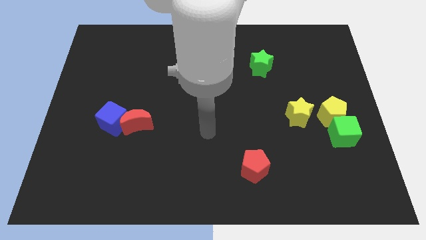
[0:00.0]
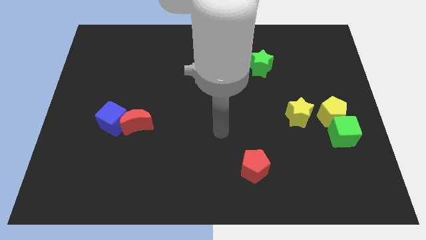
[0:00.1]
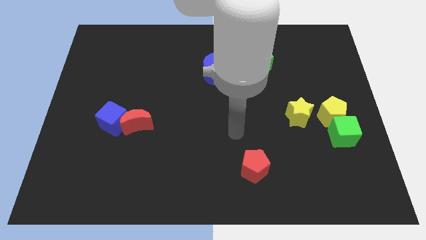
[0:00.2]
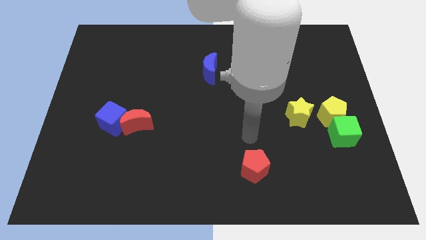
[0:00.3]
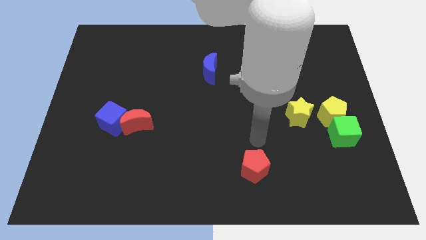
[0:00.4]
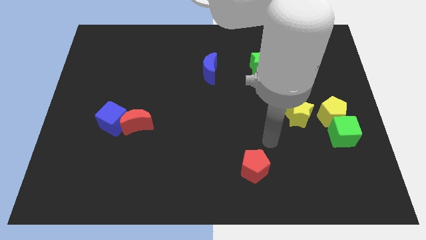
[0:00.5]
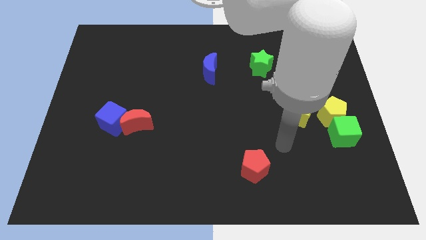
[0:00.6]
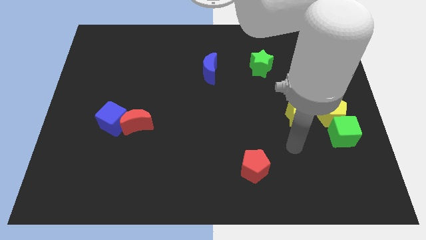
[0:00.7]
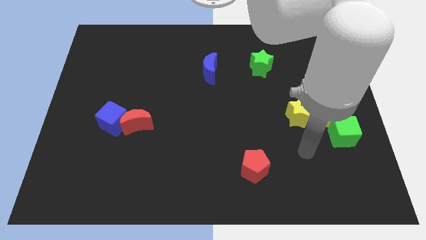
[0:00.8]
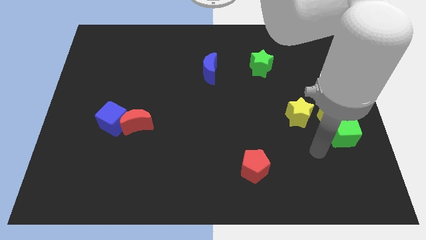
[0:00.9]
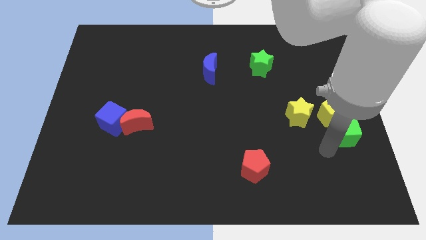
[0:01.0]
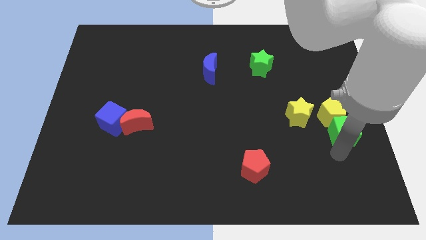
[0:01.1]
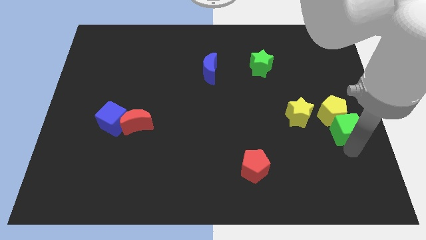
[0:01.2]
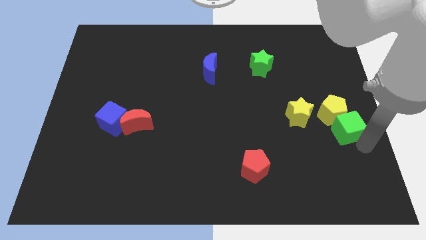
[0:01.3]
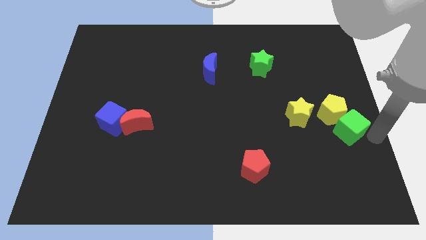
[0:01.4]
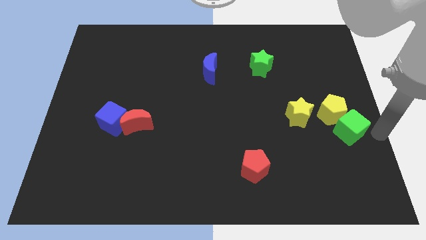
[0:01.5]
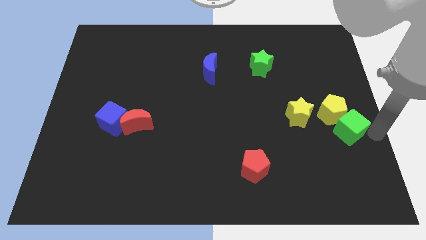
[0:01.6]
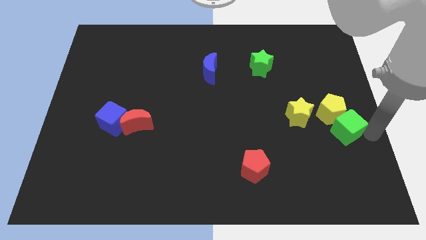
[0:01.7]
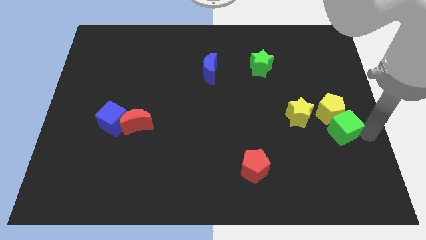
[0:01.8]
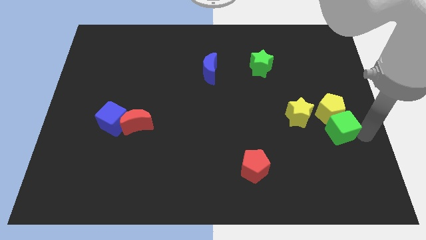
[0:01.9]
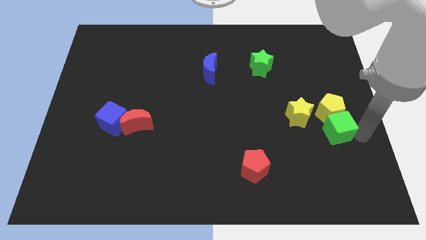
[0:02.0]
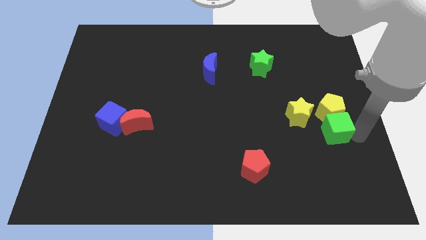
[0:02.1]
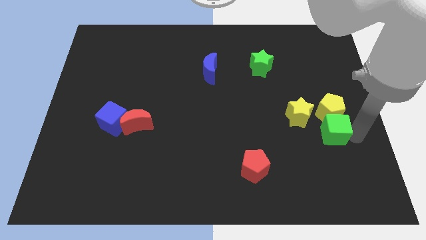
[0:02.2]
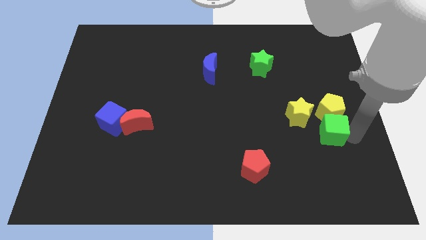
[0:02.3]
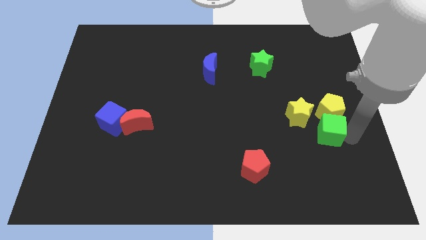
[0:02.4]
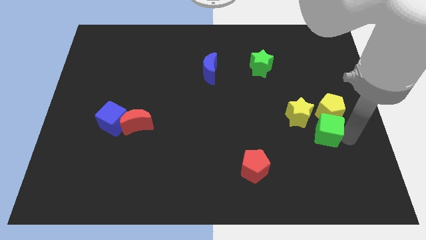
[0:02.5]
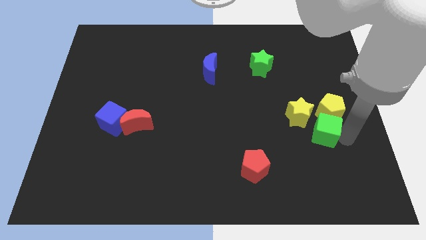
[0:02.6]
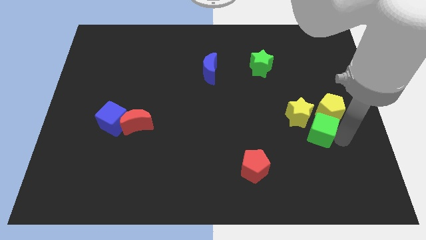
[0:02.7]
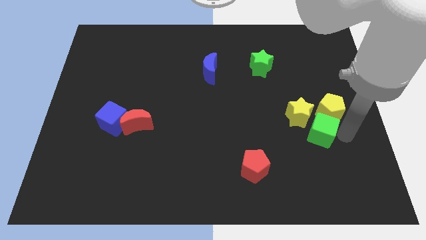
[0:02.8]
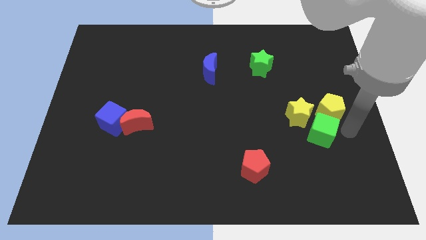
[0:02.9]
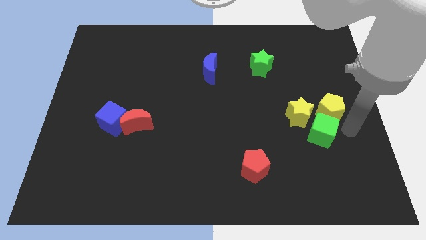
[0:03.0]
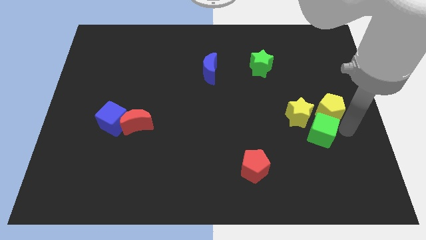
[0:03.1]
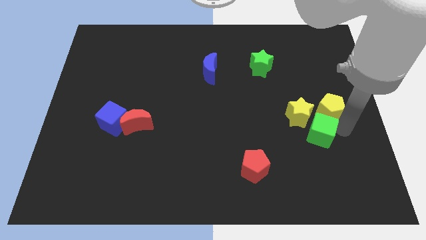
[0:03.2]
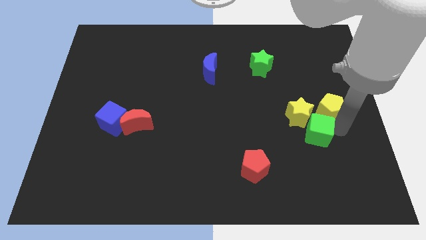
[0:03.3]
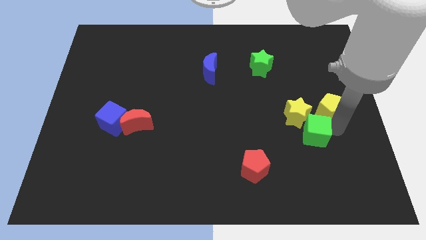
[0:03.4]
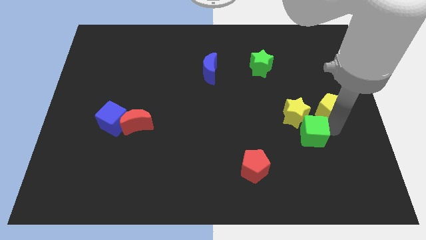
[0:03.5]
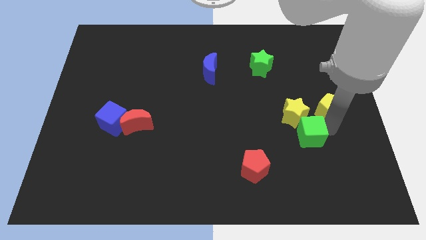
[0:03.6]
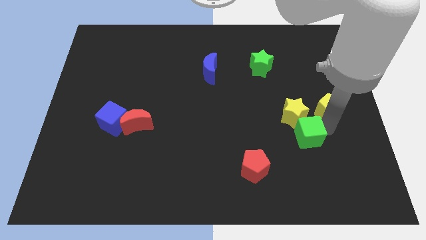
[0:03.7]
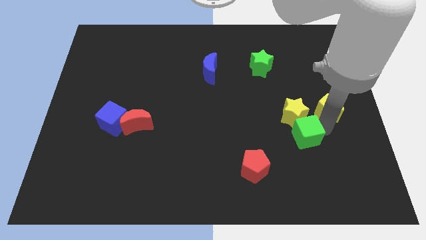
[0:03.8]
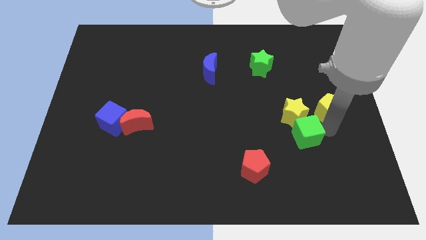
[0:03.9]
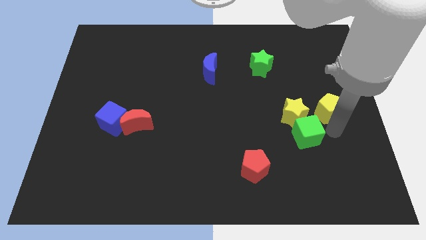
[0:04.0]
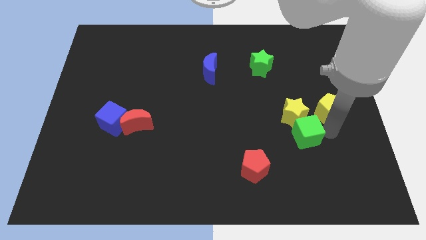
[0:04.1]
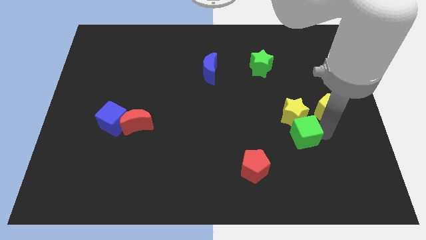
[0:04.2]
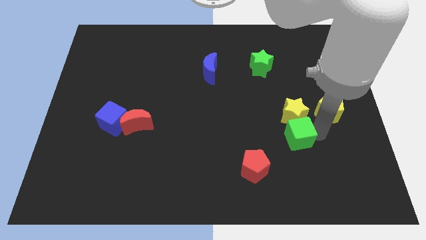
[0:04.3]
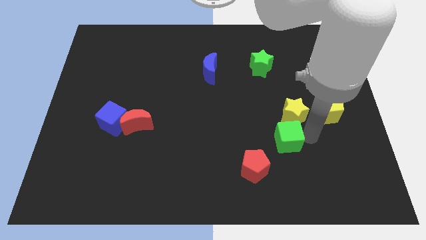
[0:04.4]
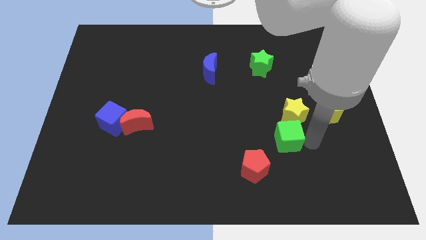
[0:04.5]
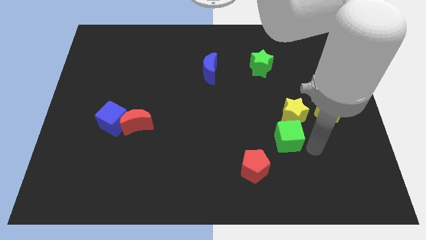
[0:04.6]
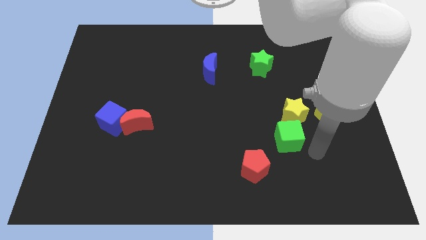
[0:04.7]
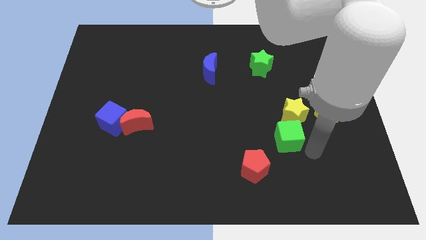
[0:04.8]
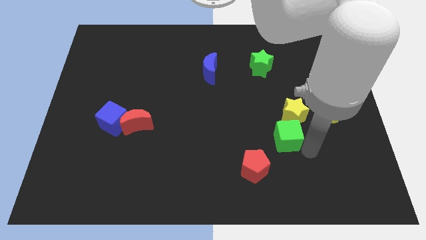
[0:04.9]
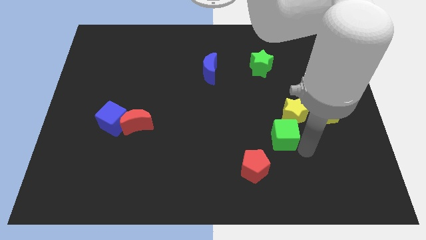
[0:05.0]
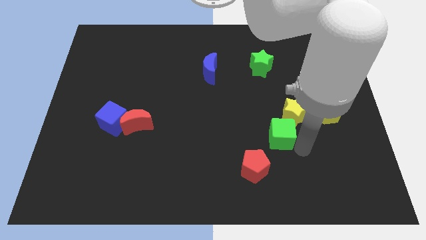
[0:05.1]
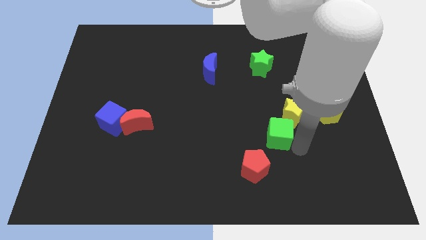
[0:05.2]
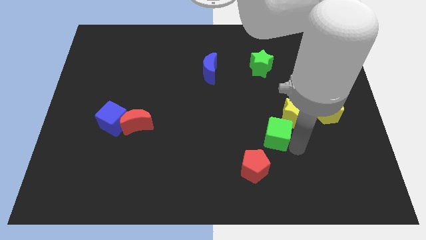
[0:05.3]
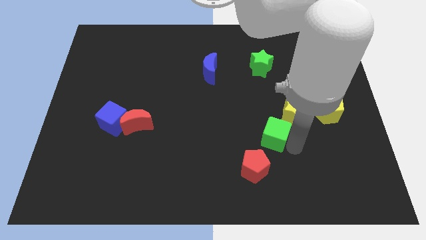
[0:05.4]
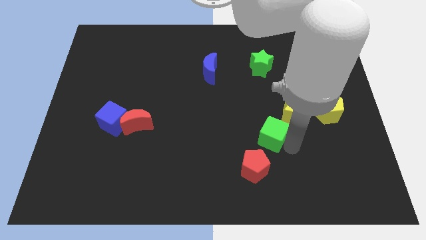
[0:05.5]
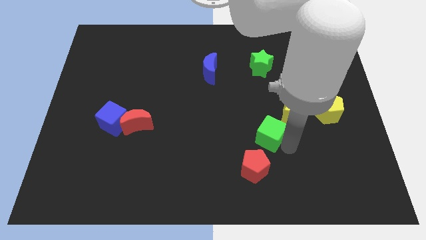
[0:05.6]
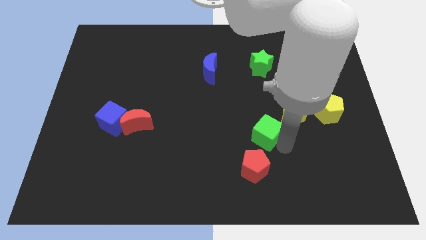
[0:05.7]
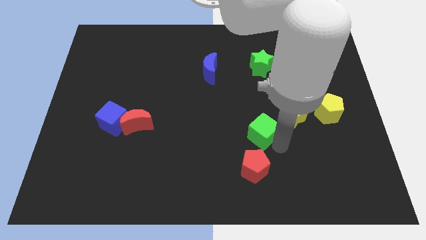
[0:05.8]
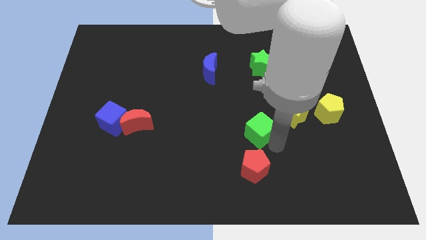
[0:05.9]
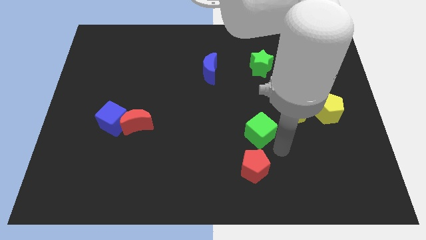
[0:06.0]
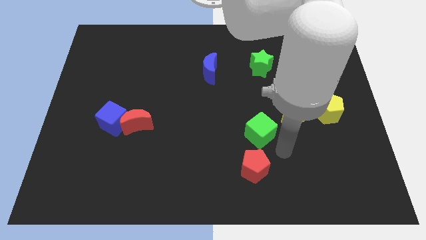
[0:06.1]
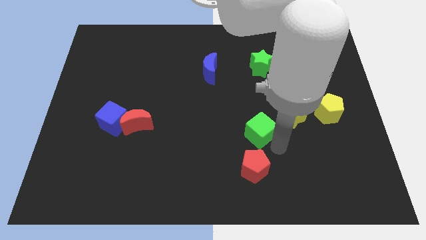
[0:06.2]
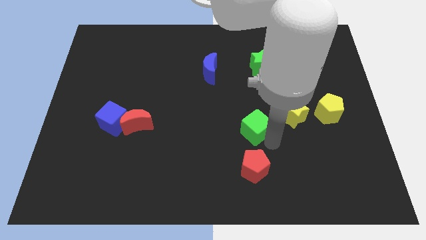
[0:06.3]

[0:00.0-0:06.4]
slide the green cube to the middle of the board

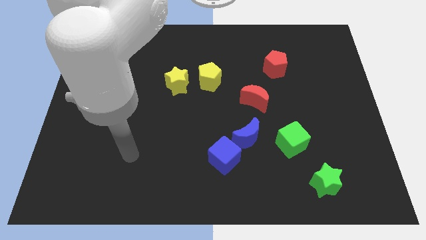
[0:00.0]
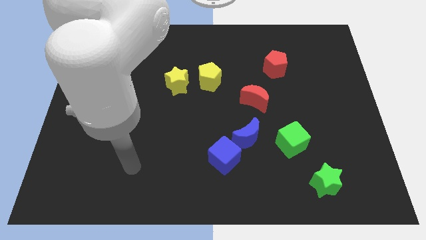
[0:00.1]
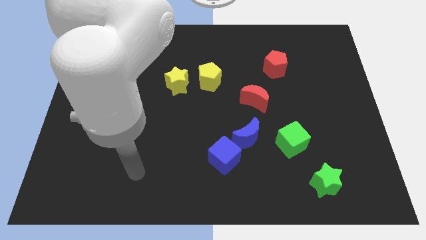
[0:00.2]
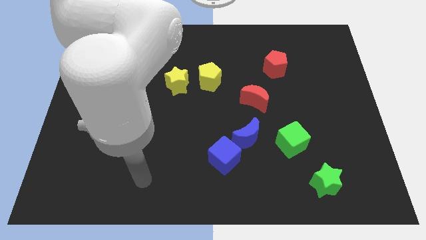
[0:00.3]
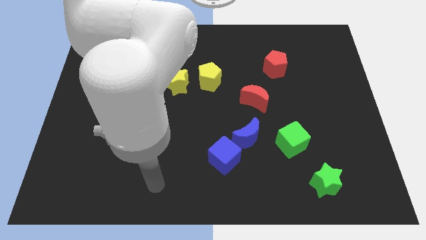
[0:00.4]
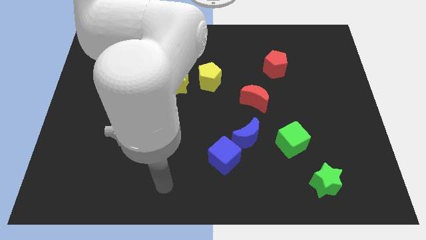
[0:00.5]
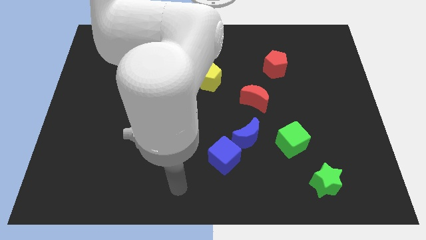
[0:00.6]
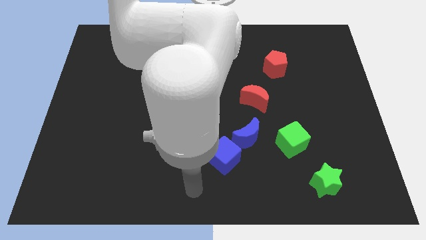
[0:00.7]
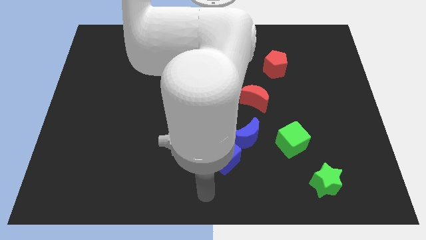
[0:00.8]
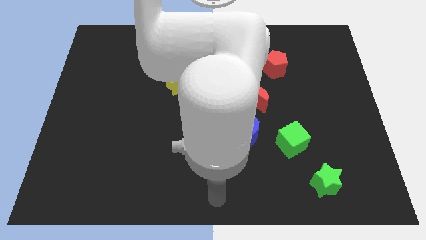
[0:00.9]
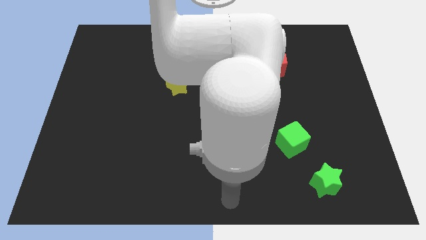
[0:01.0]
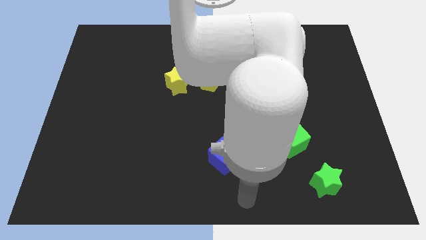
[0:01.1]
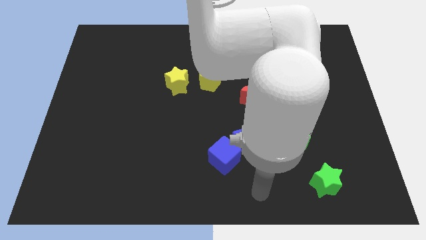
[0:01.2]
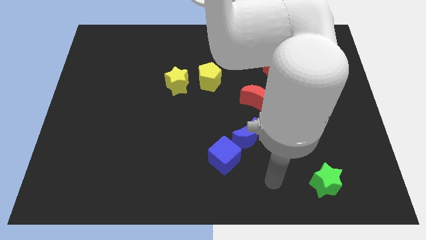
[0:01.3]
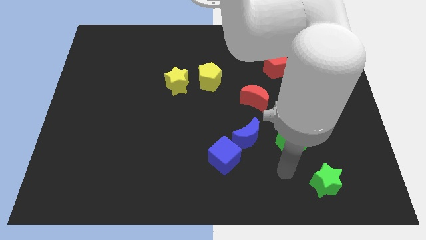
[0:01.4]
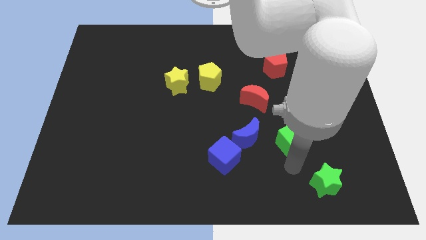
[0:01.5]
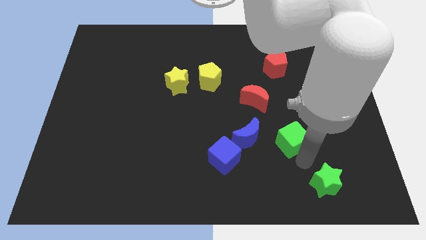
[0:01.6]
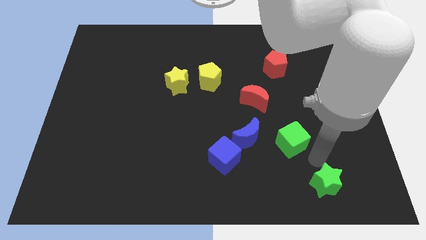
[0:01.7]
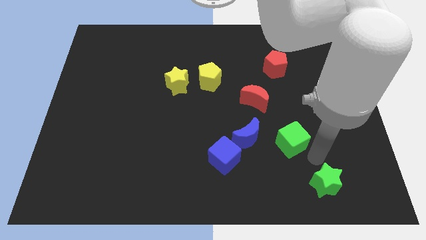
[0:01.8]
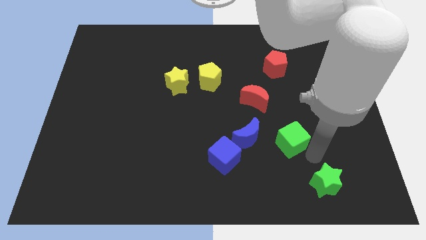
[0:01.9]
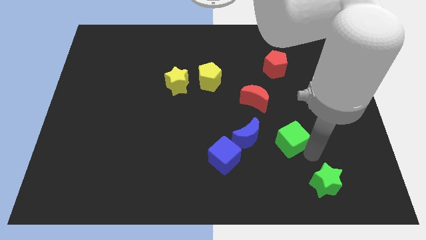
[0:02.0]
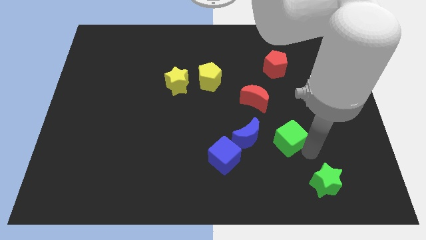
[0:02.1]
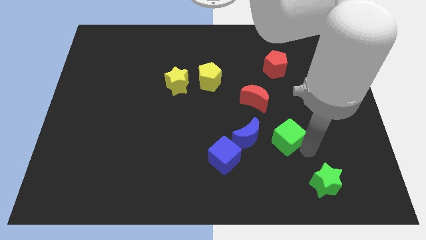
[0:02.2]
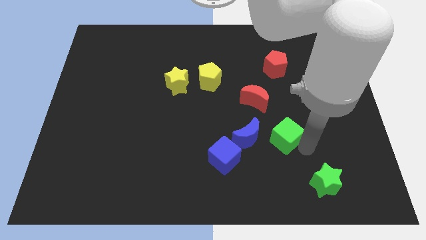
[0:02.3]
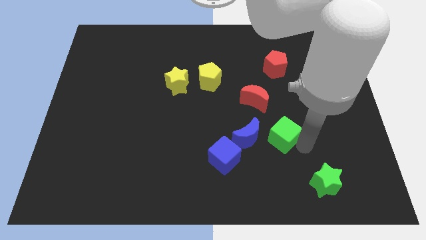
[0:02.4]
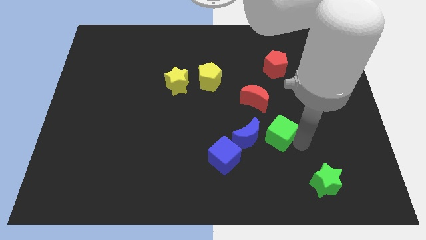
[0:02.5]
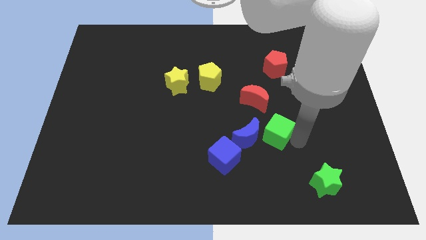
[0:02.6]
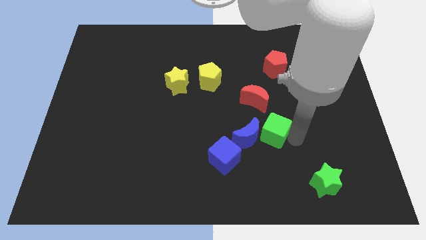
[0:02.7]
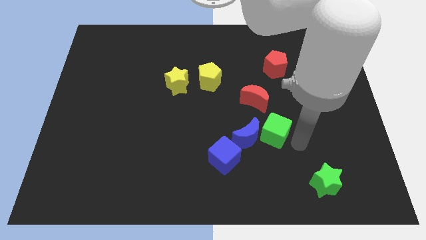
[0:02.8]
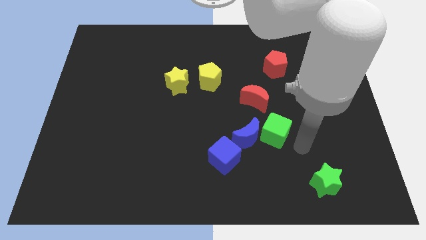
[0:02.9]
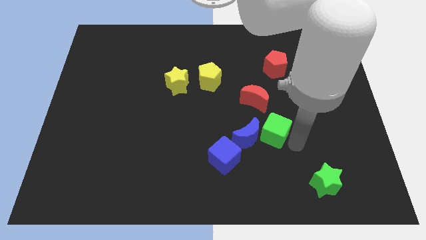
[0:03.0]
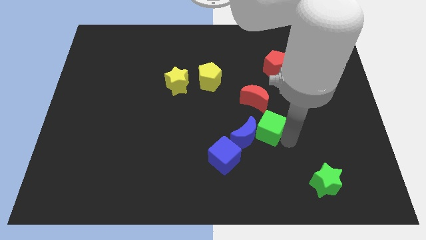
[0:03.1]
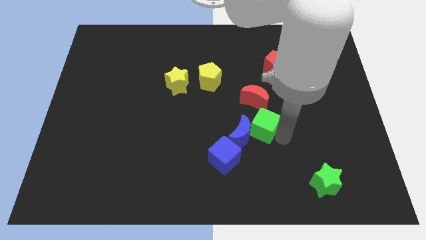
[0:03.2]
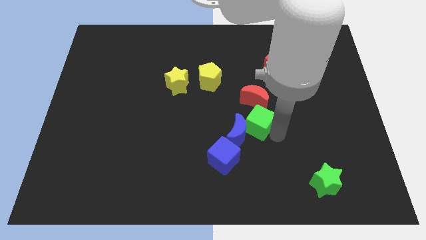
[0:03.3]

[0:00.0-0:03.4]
move the green cube to the middle of the board
